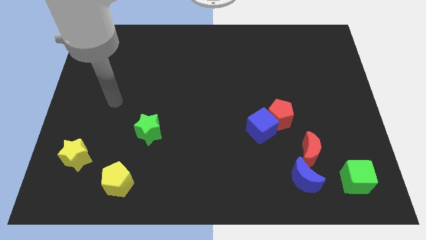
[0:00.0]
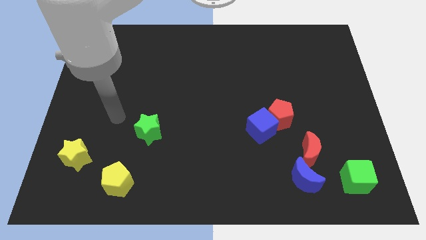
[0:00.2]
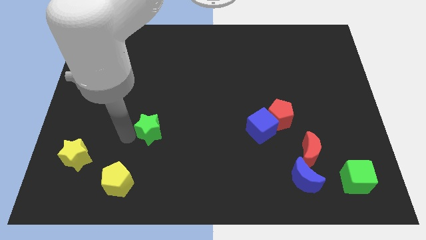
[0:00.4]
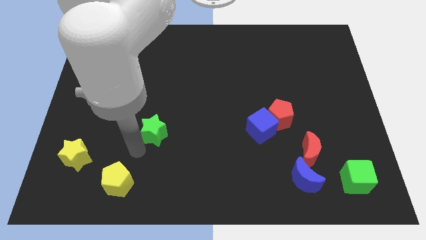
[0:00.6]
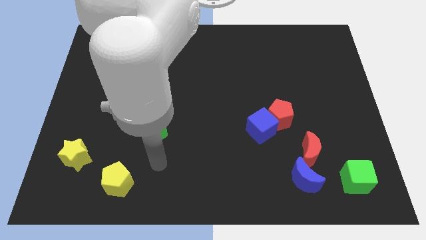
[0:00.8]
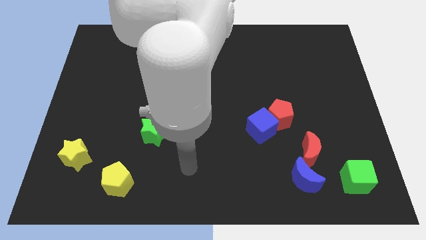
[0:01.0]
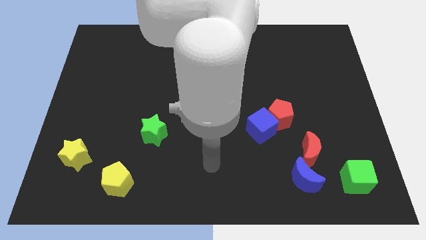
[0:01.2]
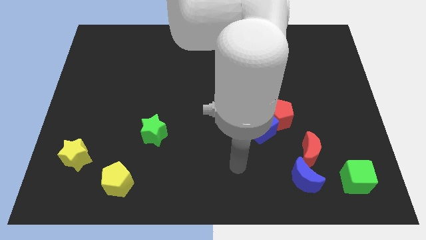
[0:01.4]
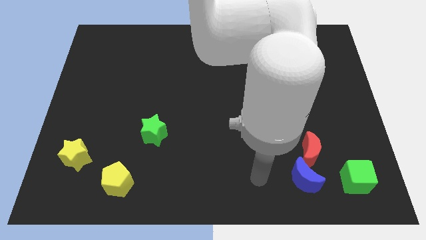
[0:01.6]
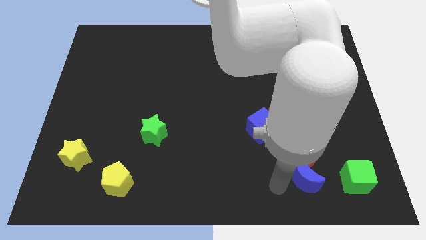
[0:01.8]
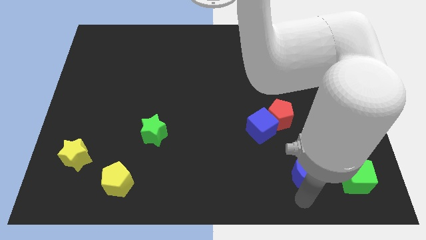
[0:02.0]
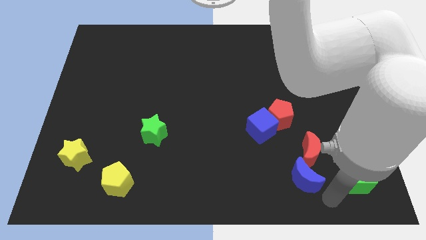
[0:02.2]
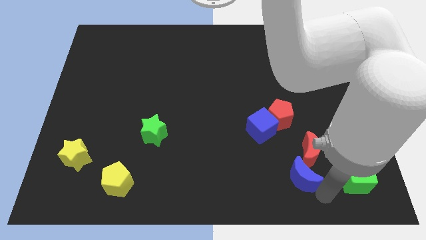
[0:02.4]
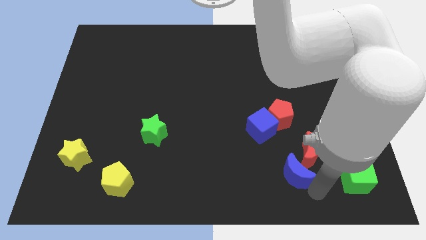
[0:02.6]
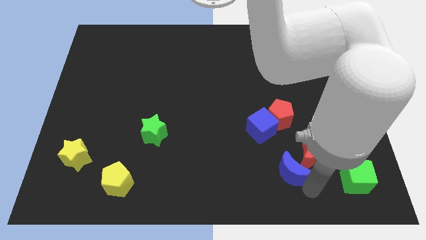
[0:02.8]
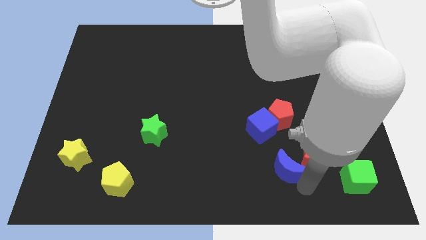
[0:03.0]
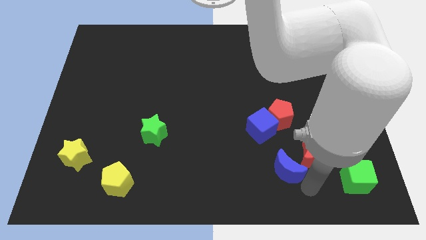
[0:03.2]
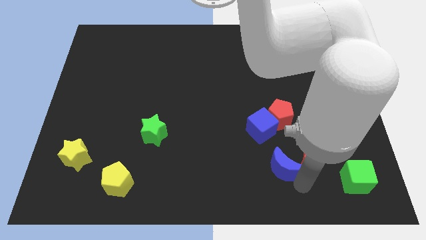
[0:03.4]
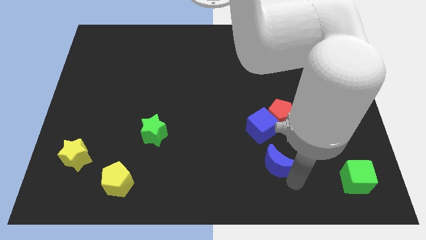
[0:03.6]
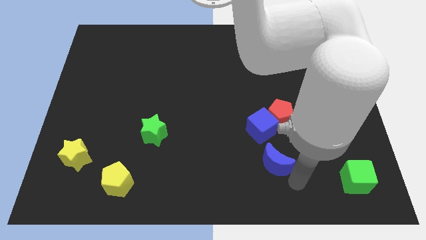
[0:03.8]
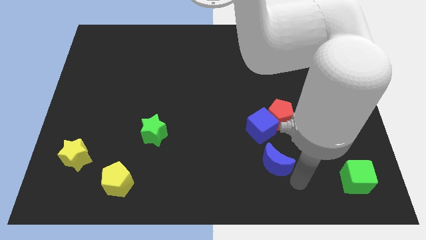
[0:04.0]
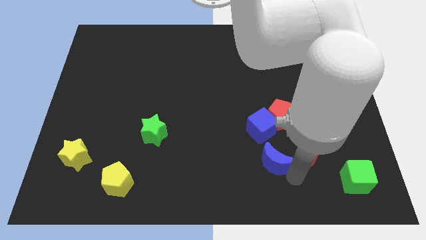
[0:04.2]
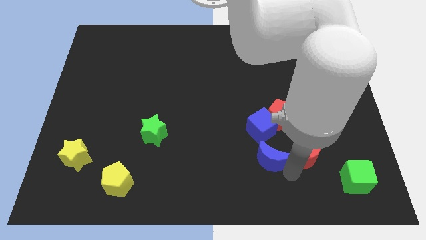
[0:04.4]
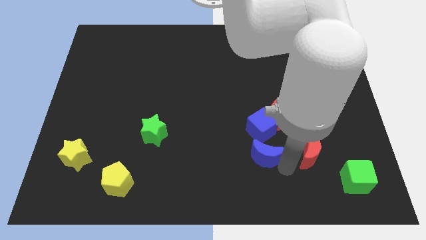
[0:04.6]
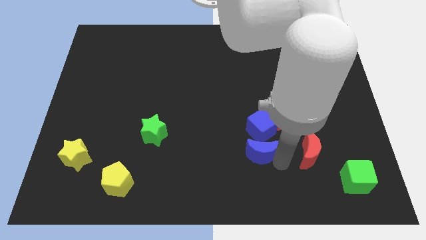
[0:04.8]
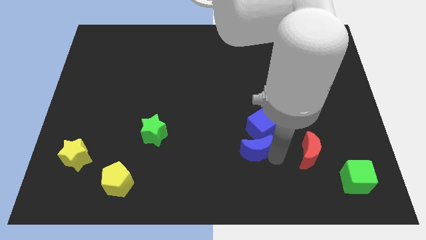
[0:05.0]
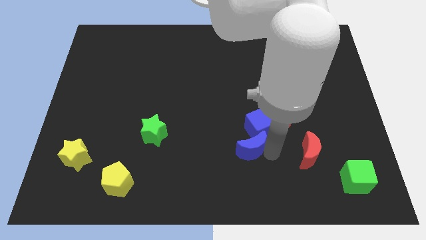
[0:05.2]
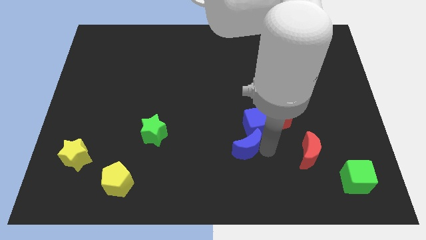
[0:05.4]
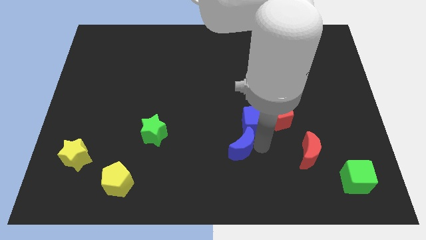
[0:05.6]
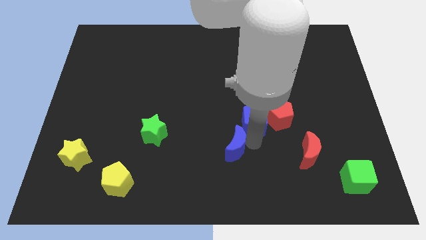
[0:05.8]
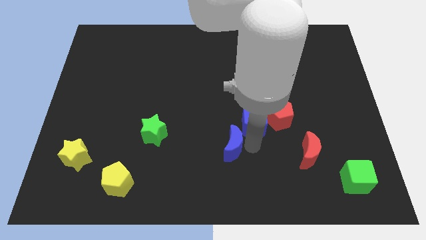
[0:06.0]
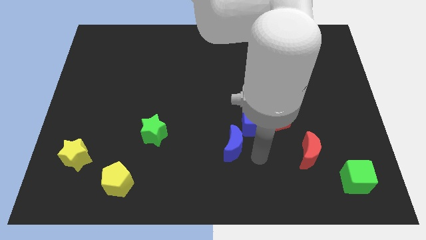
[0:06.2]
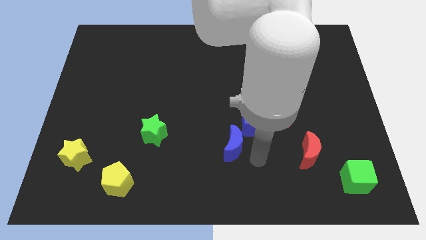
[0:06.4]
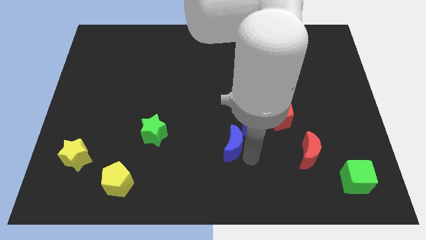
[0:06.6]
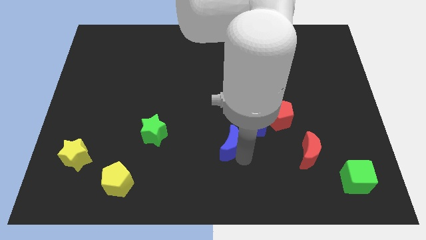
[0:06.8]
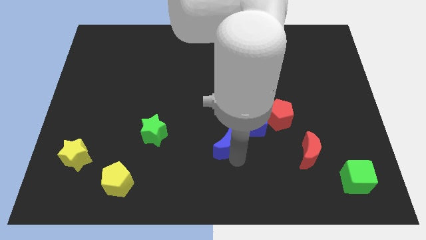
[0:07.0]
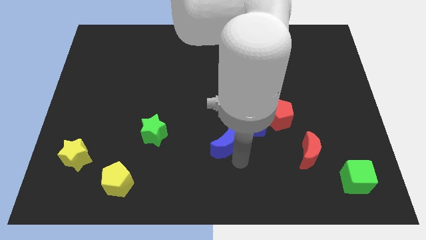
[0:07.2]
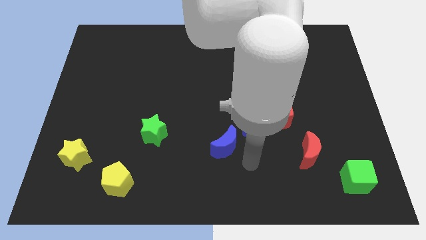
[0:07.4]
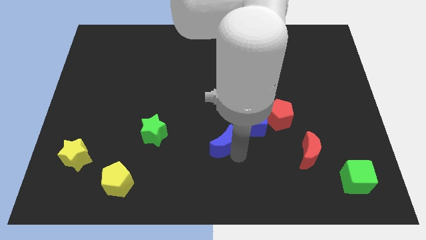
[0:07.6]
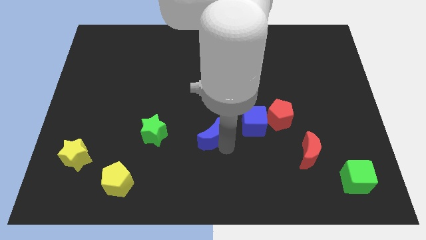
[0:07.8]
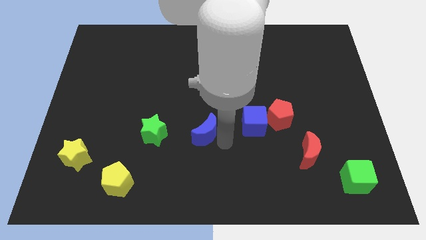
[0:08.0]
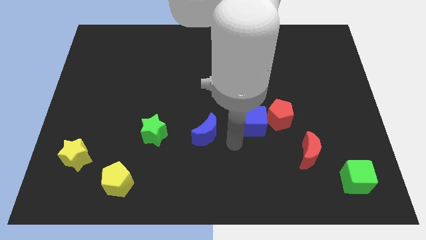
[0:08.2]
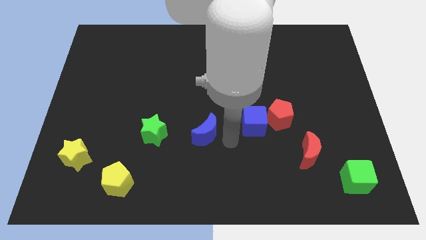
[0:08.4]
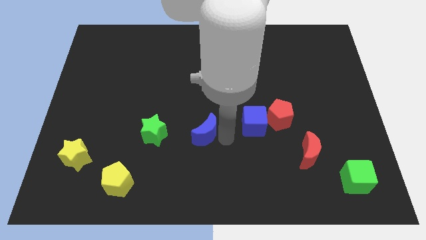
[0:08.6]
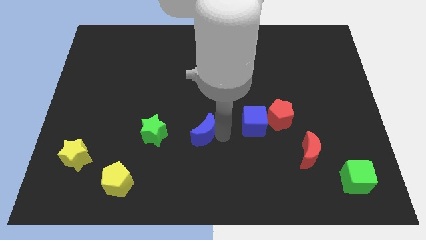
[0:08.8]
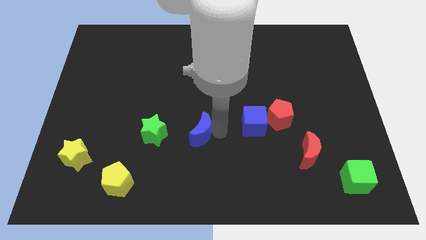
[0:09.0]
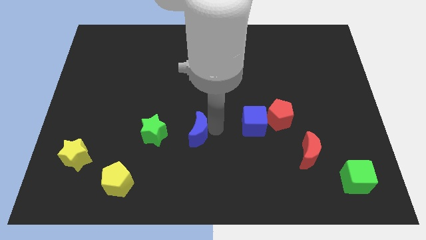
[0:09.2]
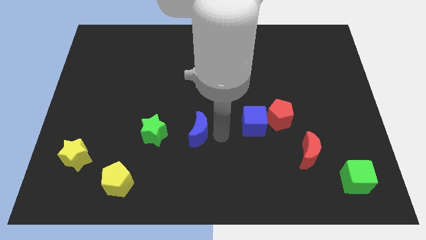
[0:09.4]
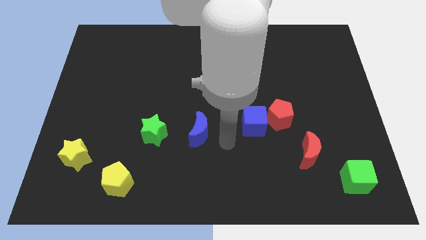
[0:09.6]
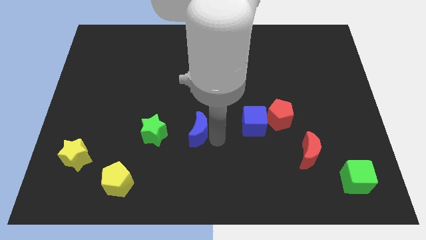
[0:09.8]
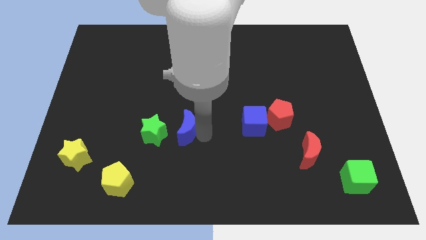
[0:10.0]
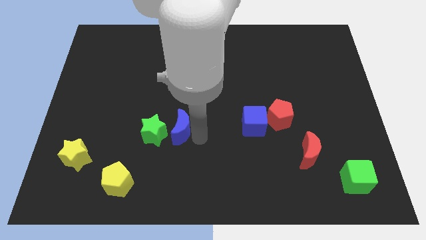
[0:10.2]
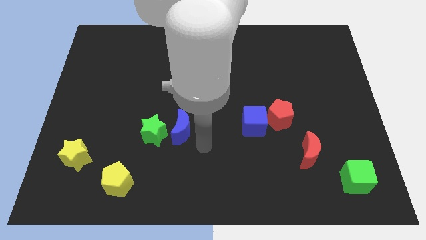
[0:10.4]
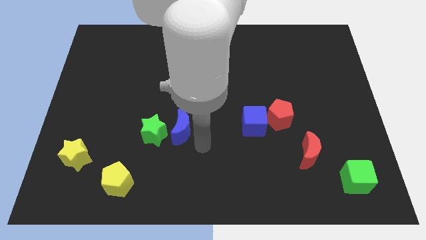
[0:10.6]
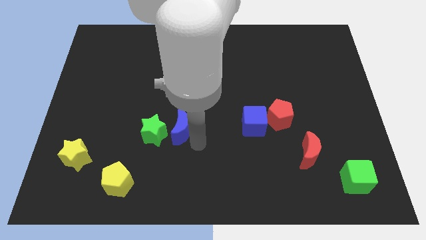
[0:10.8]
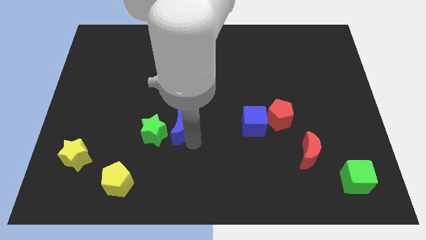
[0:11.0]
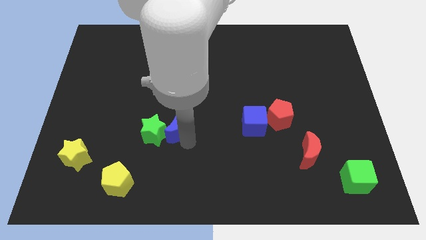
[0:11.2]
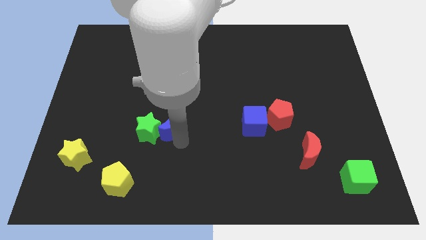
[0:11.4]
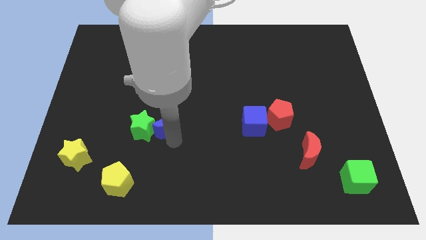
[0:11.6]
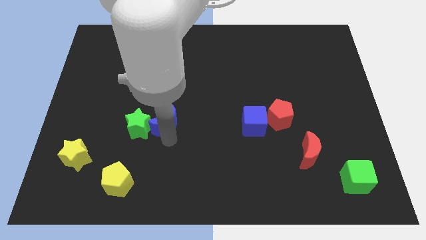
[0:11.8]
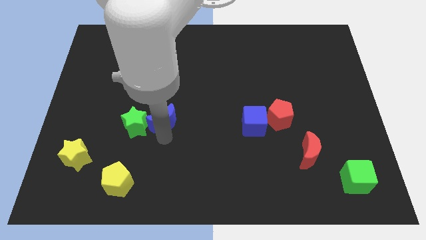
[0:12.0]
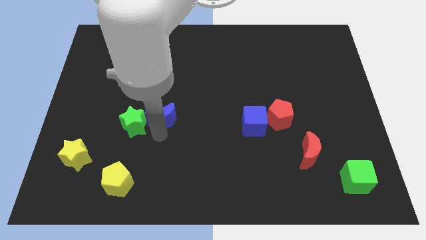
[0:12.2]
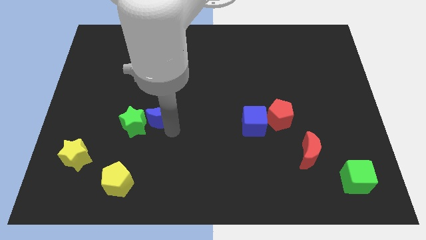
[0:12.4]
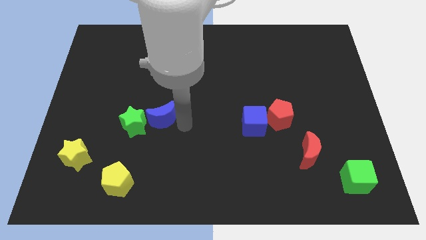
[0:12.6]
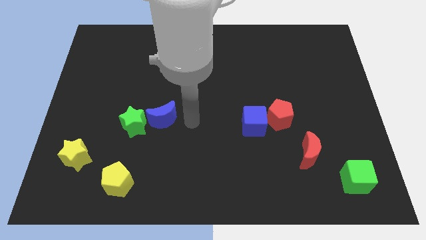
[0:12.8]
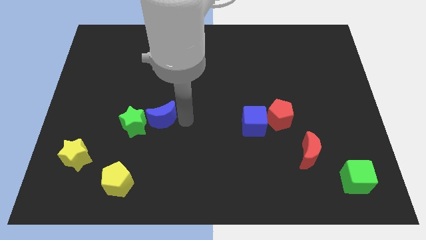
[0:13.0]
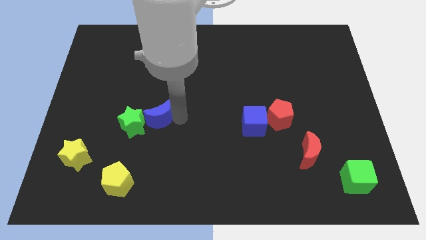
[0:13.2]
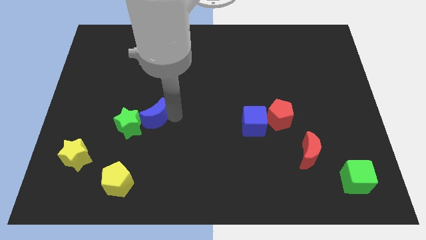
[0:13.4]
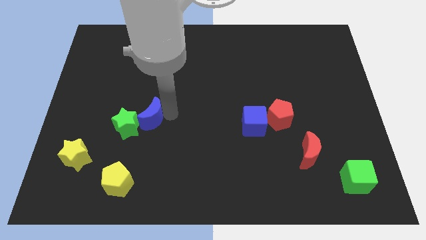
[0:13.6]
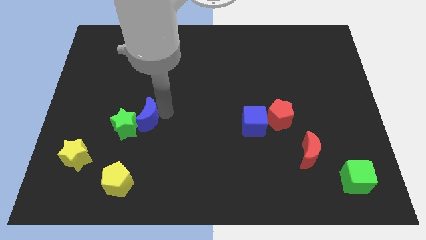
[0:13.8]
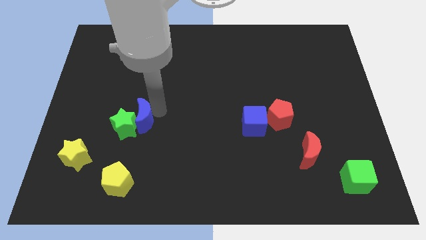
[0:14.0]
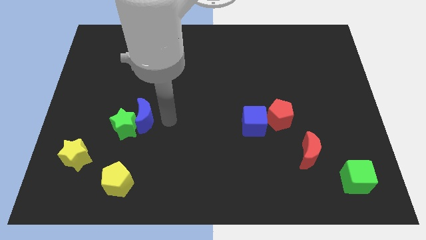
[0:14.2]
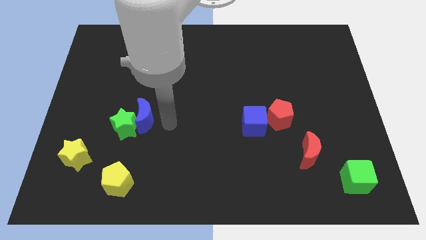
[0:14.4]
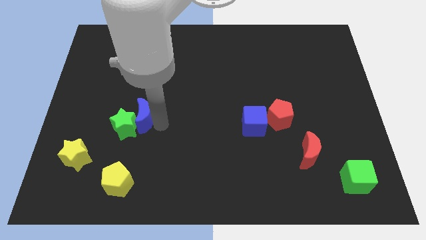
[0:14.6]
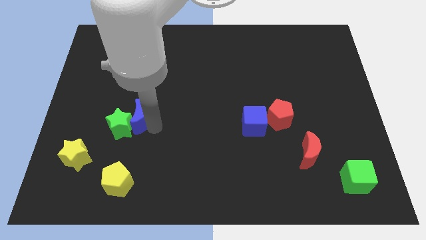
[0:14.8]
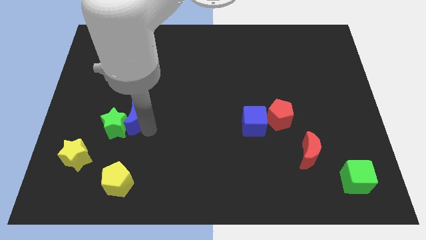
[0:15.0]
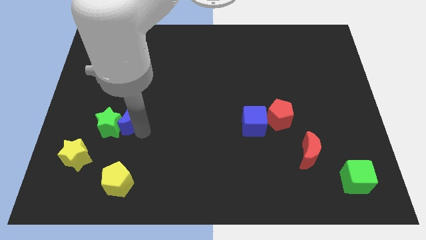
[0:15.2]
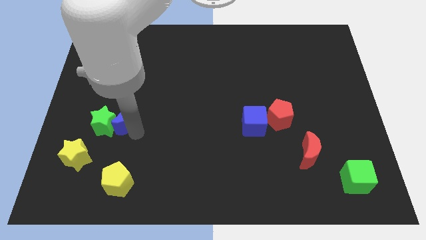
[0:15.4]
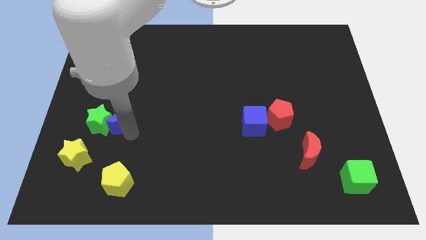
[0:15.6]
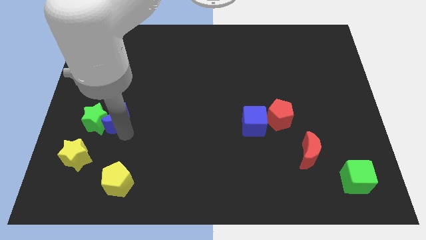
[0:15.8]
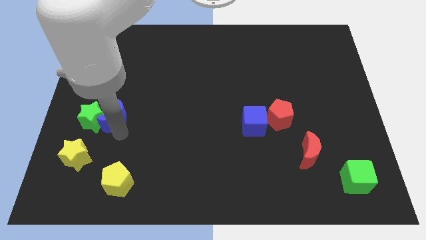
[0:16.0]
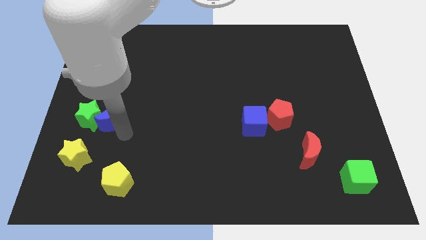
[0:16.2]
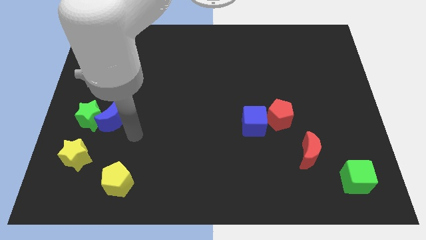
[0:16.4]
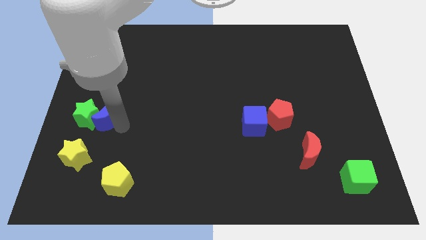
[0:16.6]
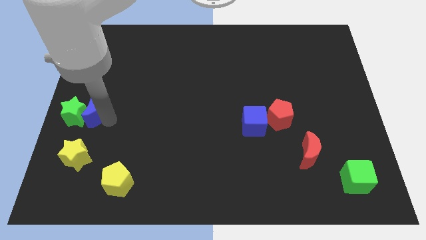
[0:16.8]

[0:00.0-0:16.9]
slide the blue moon to the left side of the board
